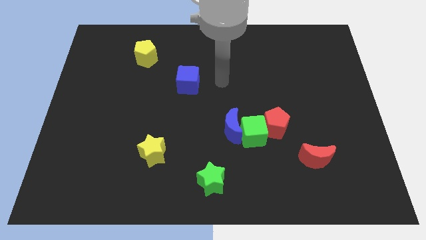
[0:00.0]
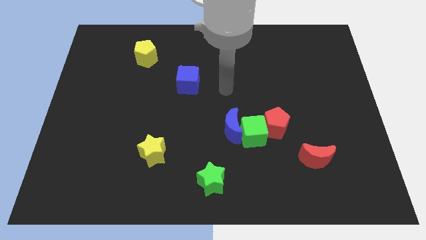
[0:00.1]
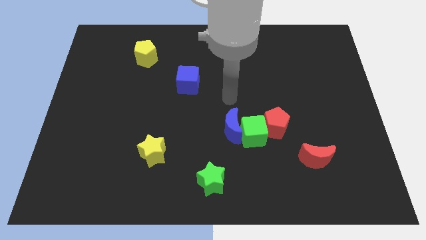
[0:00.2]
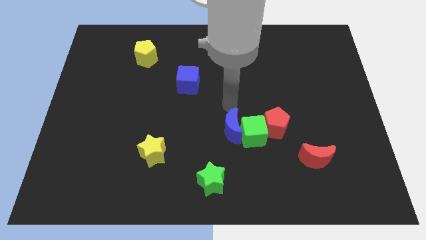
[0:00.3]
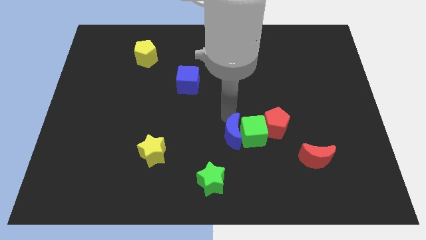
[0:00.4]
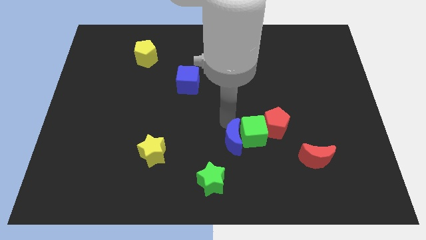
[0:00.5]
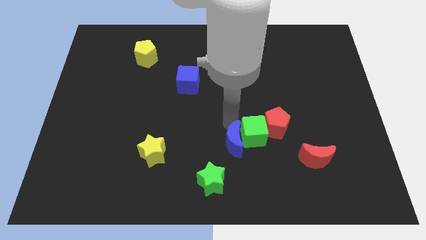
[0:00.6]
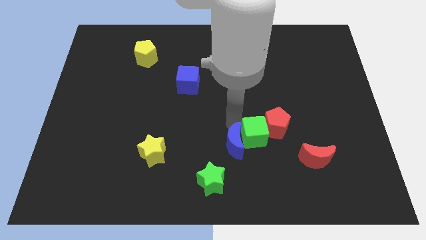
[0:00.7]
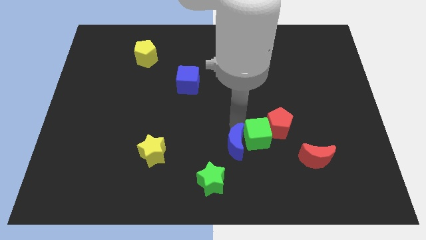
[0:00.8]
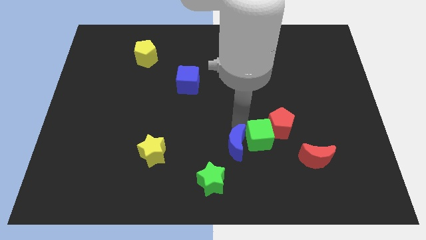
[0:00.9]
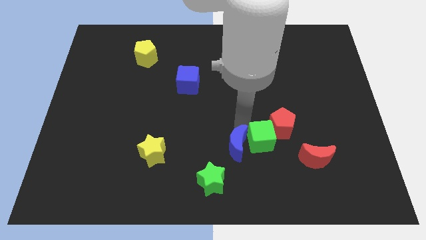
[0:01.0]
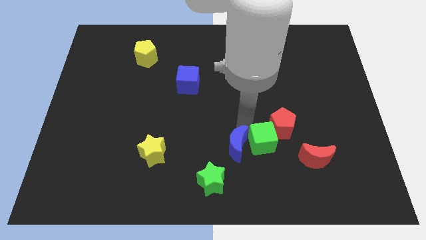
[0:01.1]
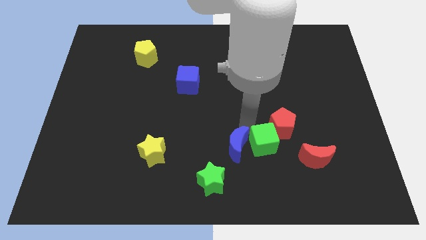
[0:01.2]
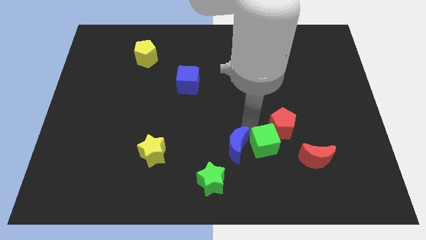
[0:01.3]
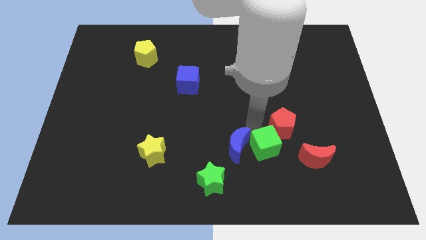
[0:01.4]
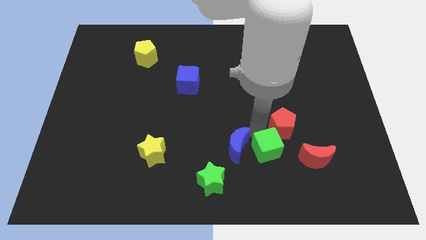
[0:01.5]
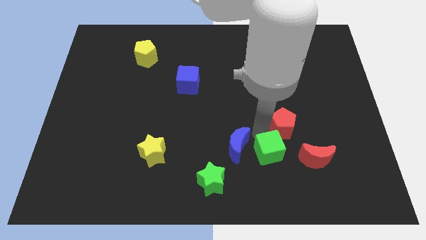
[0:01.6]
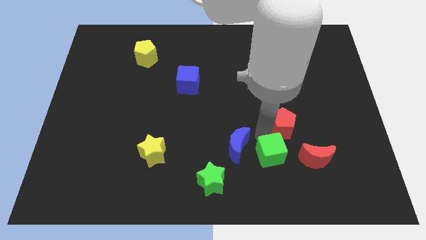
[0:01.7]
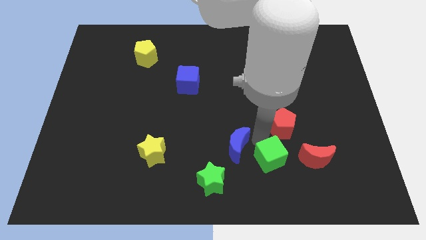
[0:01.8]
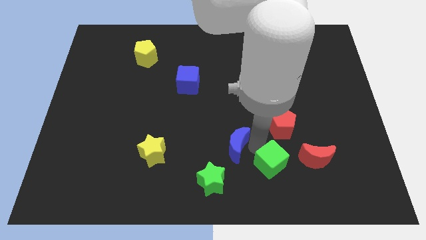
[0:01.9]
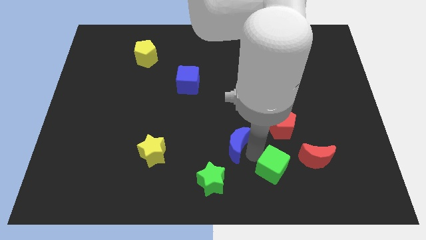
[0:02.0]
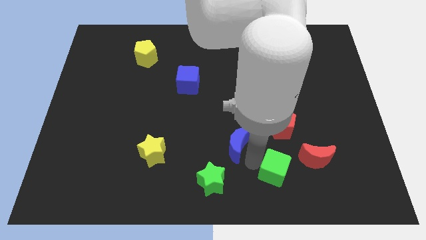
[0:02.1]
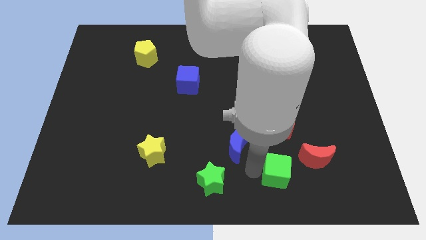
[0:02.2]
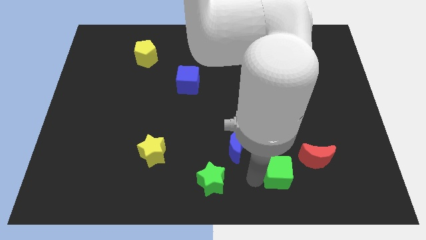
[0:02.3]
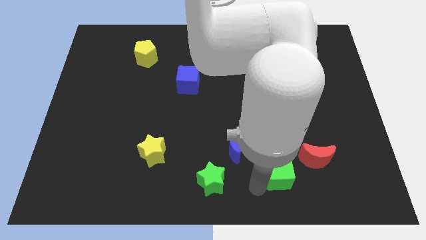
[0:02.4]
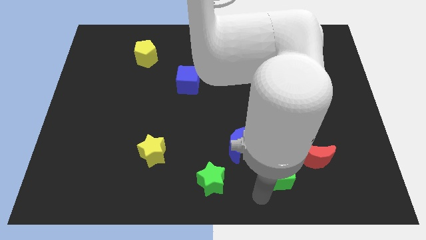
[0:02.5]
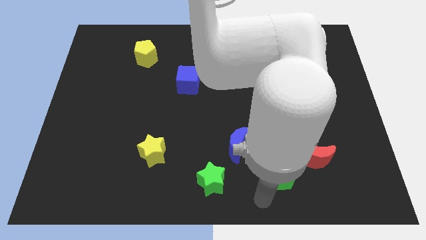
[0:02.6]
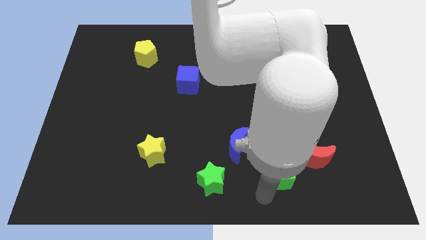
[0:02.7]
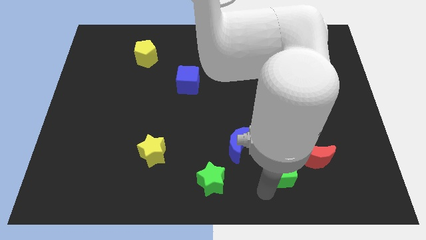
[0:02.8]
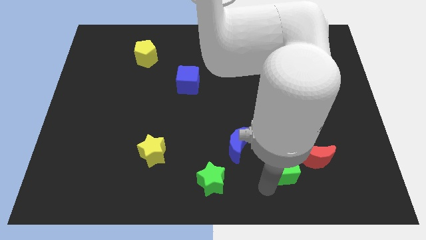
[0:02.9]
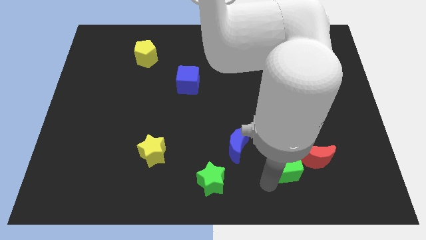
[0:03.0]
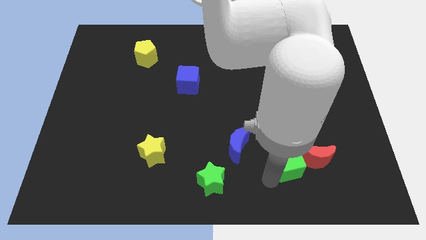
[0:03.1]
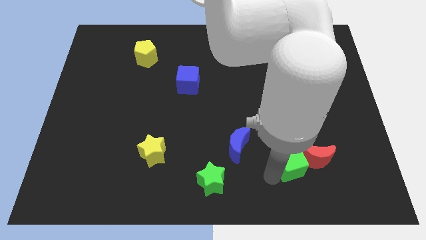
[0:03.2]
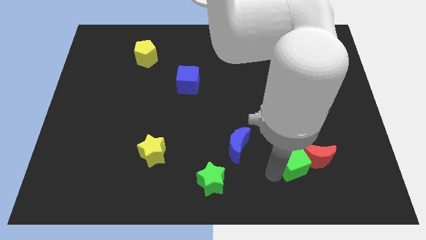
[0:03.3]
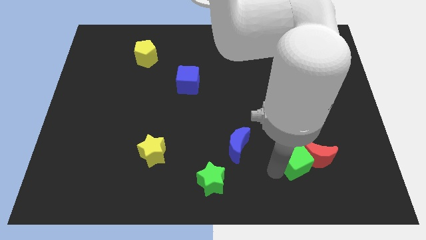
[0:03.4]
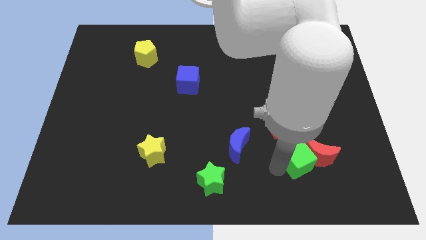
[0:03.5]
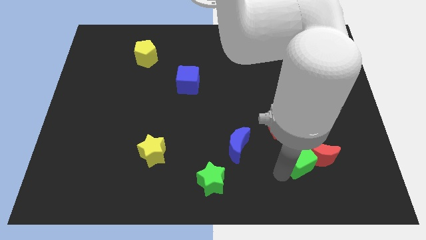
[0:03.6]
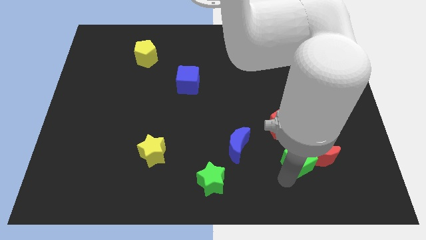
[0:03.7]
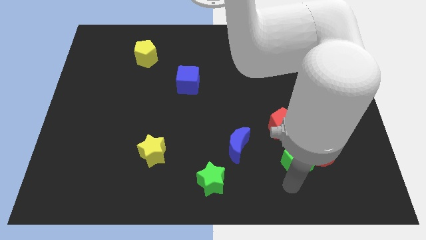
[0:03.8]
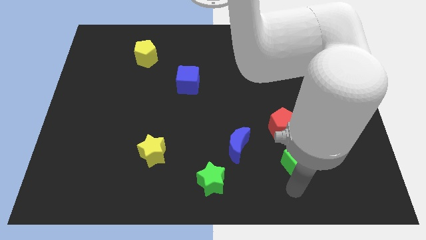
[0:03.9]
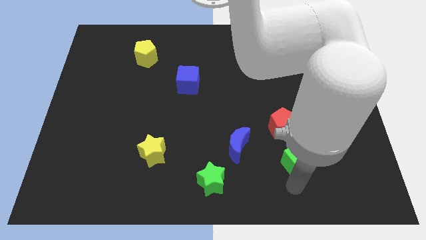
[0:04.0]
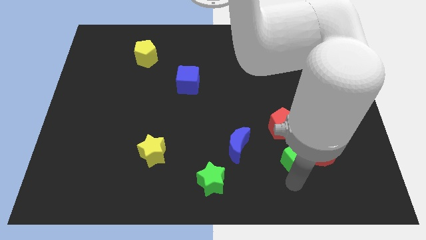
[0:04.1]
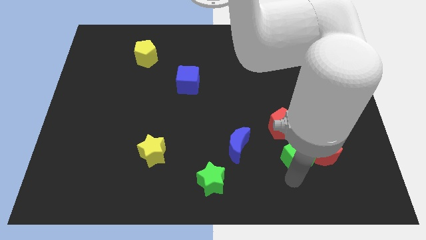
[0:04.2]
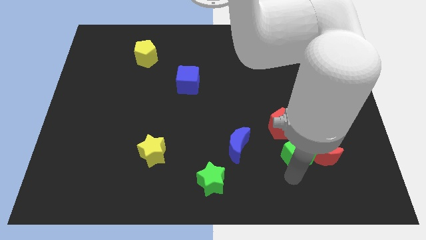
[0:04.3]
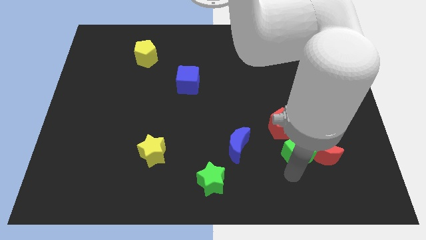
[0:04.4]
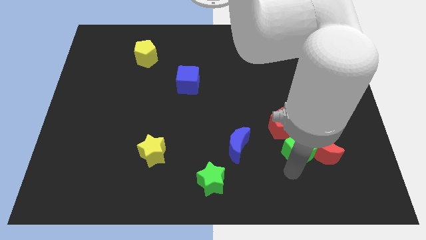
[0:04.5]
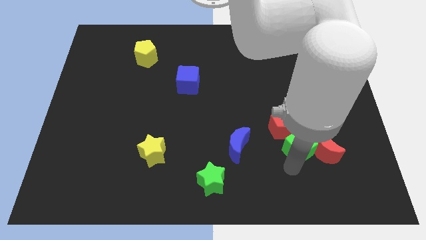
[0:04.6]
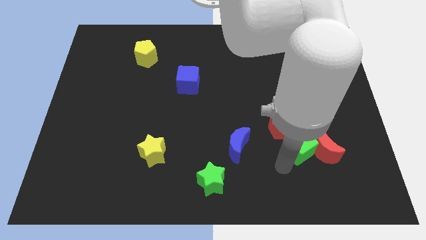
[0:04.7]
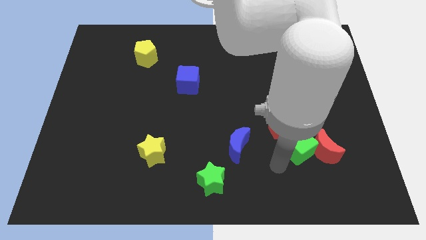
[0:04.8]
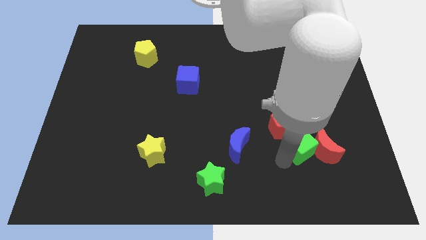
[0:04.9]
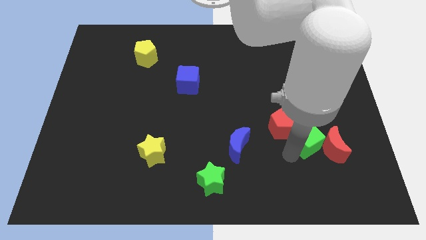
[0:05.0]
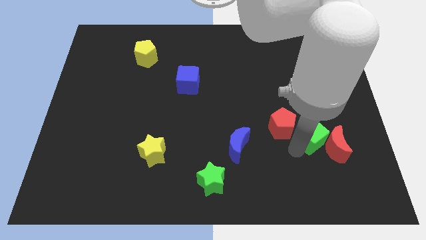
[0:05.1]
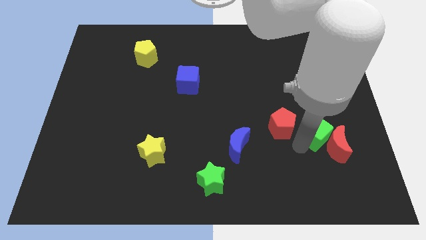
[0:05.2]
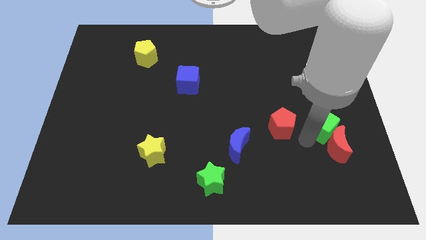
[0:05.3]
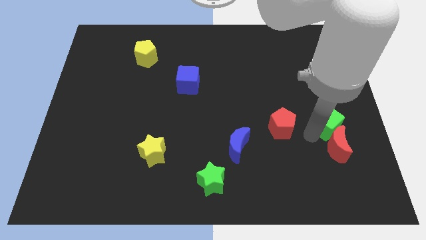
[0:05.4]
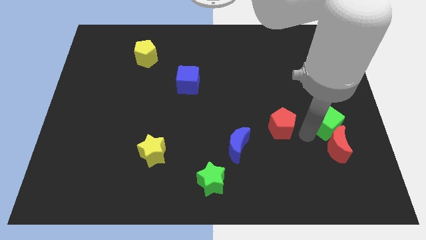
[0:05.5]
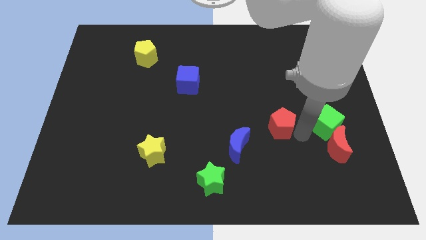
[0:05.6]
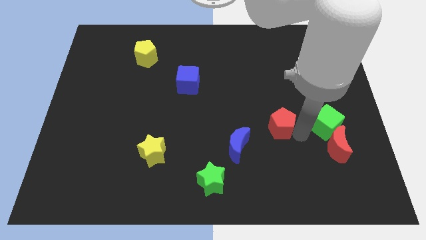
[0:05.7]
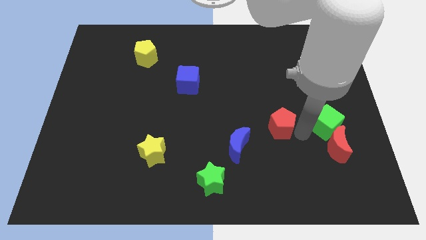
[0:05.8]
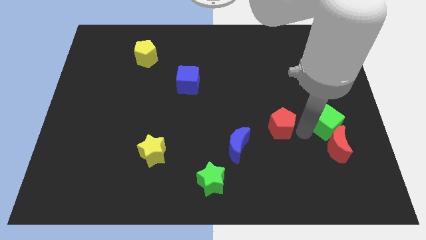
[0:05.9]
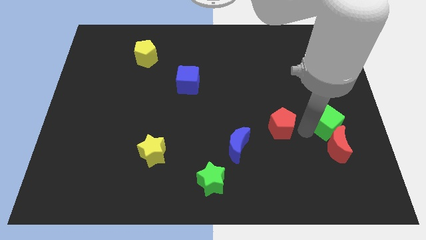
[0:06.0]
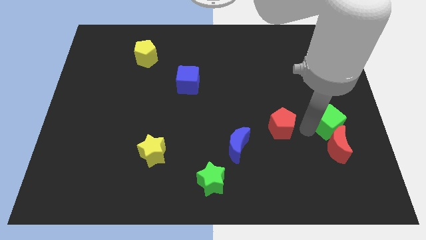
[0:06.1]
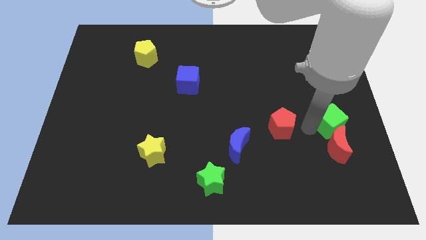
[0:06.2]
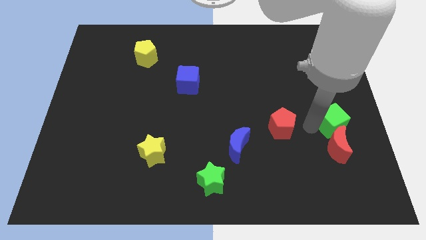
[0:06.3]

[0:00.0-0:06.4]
put the green cube to the right side of the board
